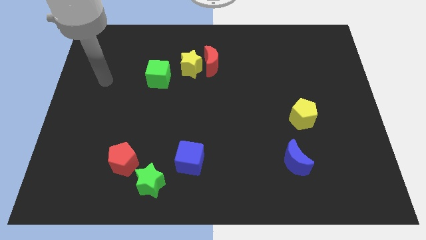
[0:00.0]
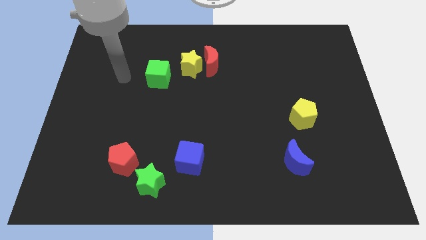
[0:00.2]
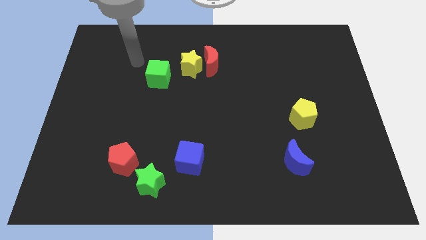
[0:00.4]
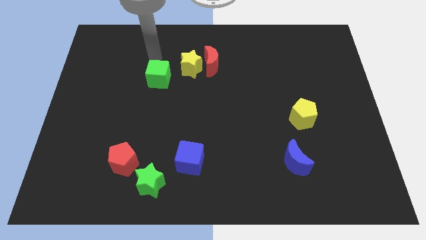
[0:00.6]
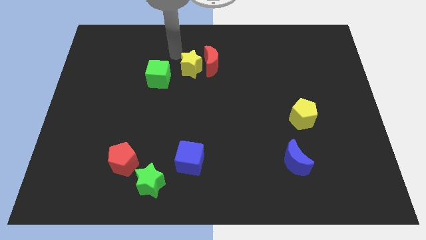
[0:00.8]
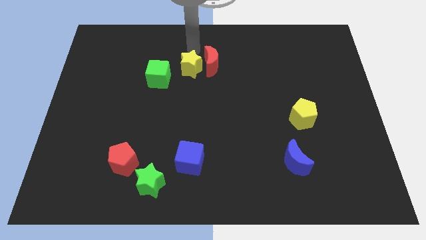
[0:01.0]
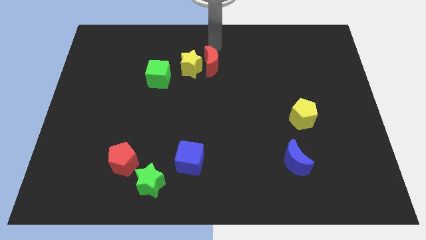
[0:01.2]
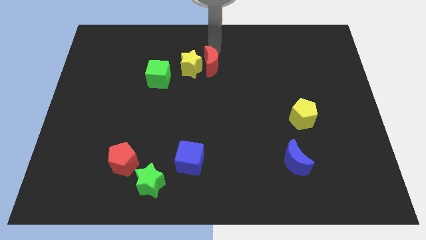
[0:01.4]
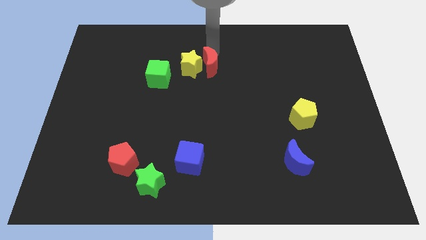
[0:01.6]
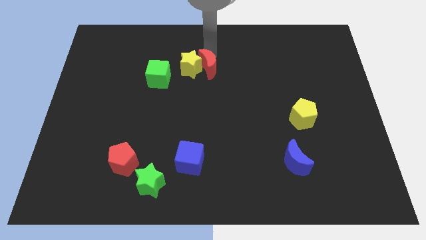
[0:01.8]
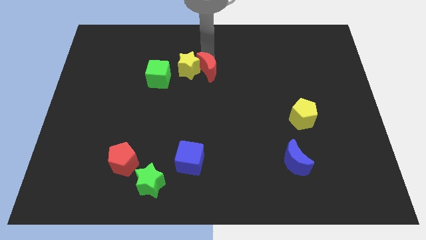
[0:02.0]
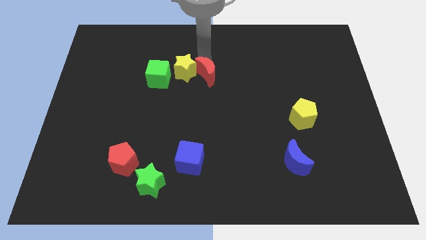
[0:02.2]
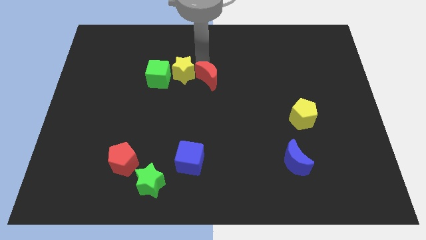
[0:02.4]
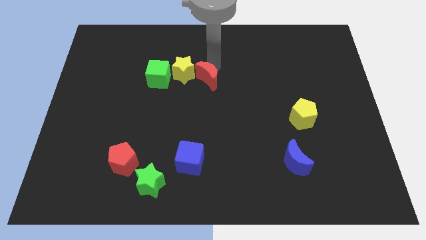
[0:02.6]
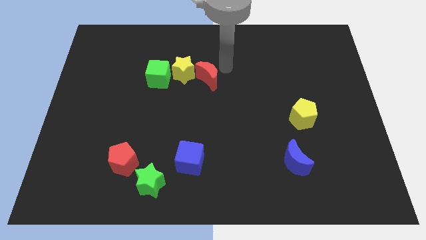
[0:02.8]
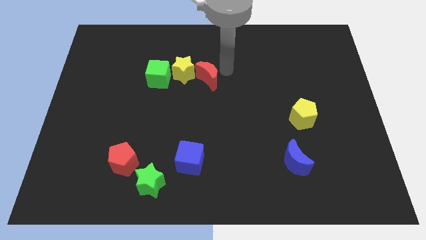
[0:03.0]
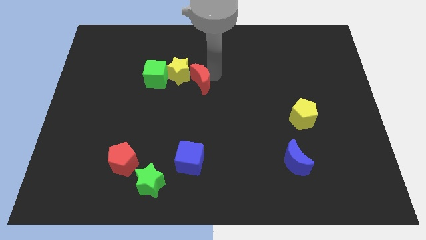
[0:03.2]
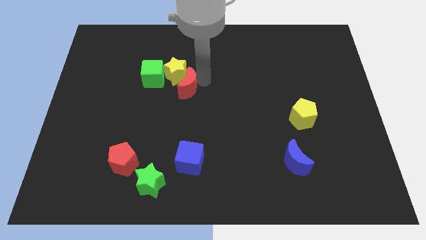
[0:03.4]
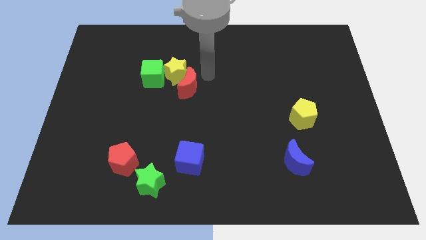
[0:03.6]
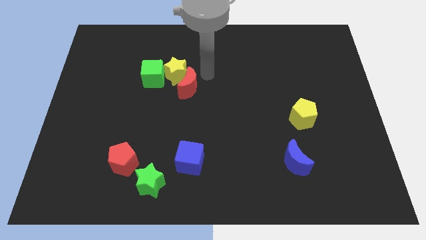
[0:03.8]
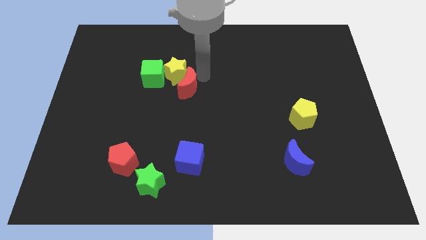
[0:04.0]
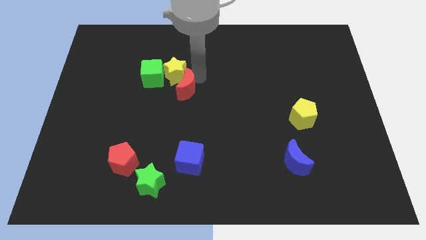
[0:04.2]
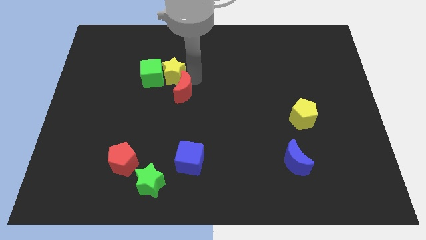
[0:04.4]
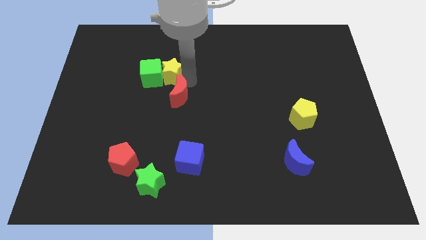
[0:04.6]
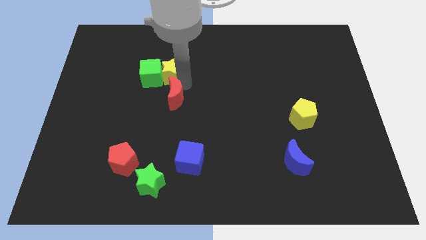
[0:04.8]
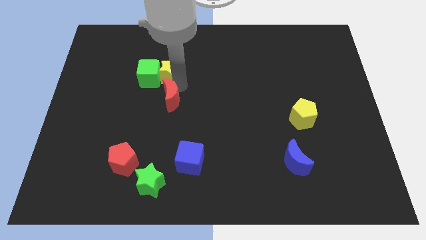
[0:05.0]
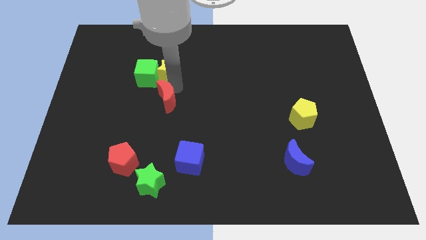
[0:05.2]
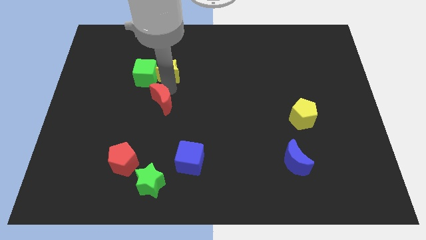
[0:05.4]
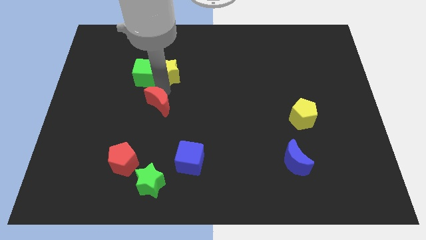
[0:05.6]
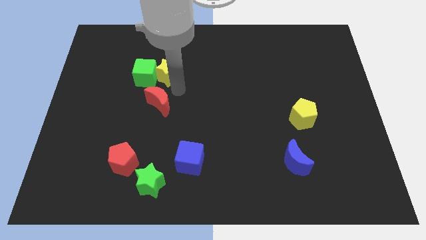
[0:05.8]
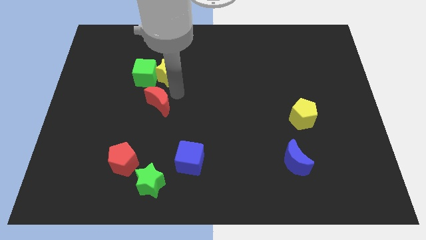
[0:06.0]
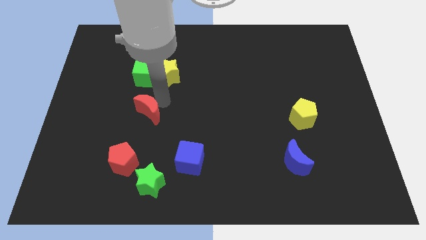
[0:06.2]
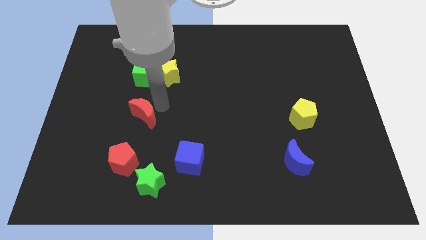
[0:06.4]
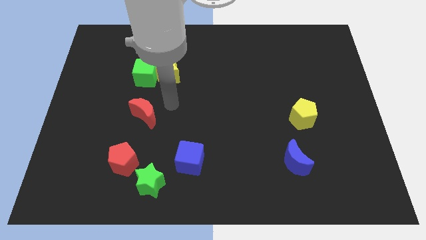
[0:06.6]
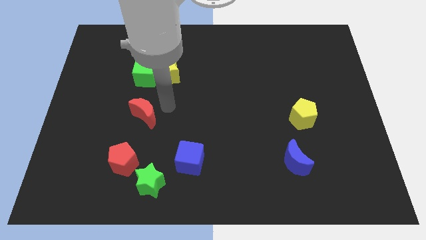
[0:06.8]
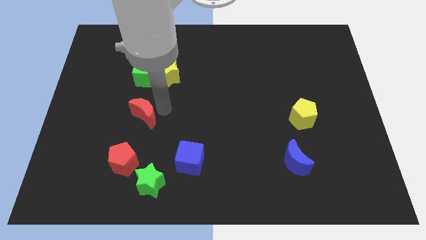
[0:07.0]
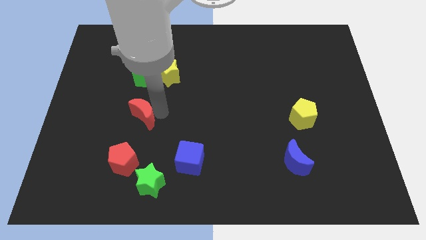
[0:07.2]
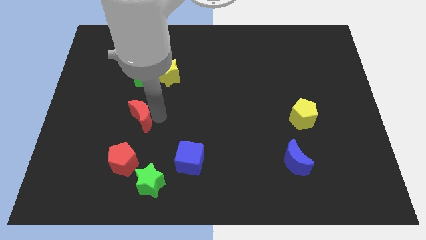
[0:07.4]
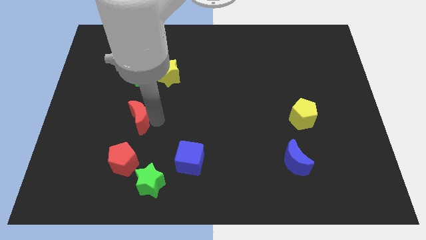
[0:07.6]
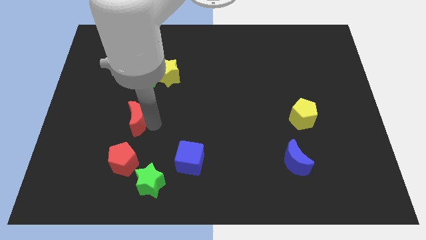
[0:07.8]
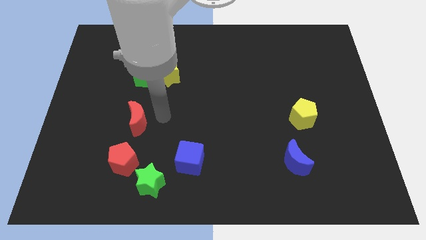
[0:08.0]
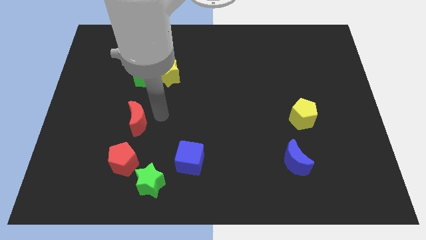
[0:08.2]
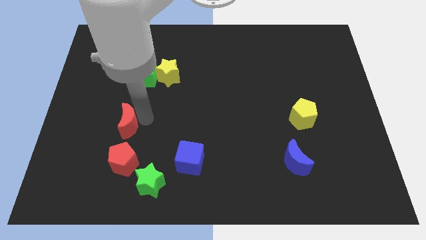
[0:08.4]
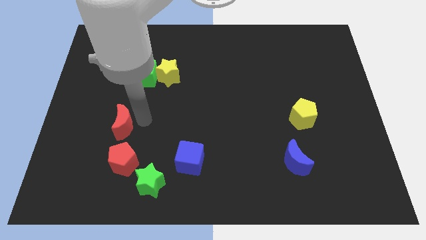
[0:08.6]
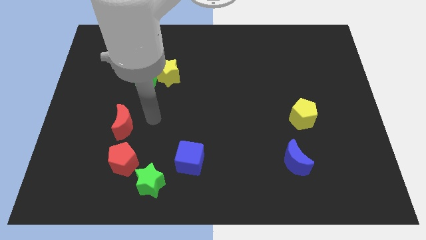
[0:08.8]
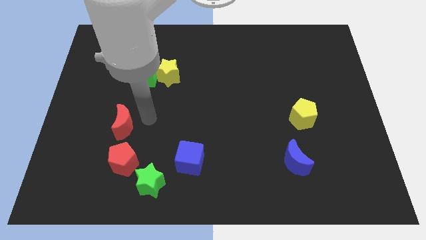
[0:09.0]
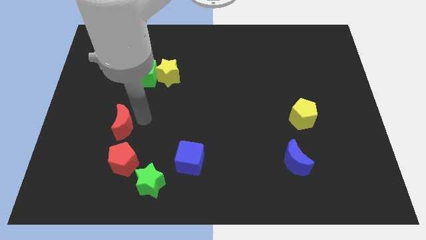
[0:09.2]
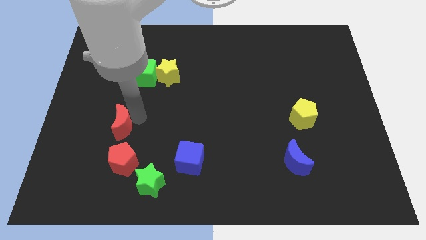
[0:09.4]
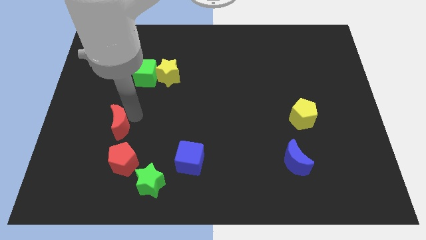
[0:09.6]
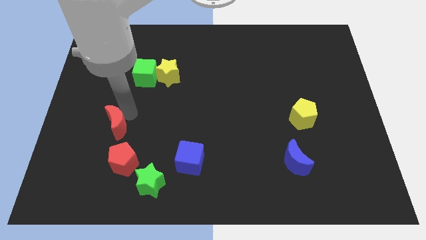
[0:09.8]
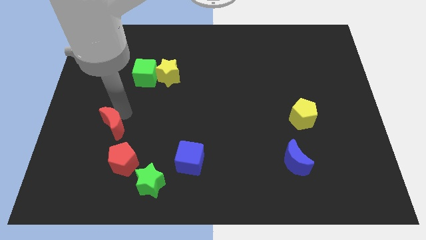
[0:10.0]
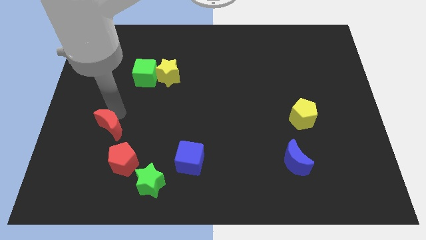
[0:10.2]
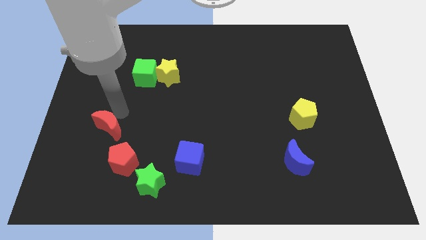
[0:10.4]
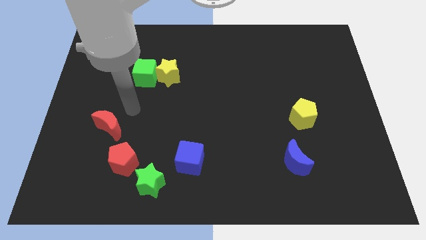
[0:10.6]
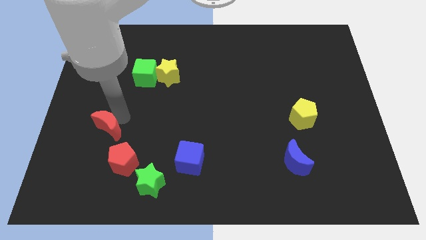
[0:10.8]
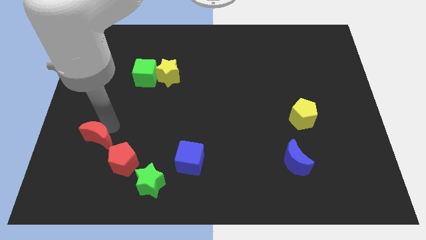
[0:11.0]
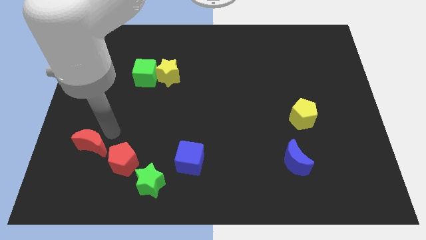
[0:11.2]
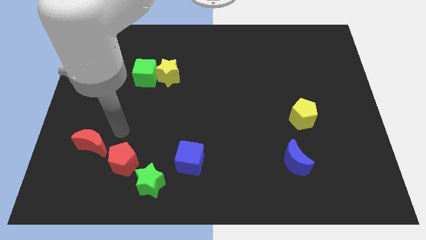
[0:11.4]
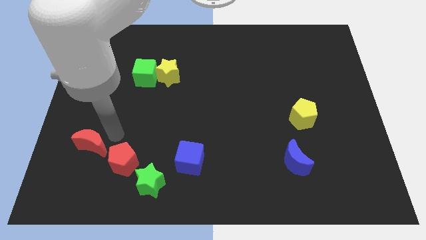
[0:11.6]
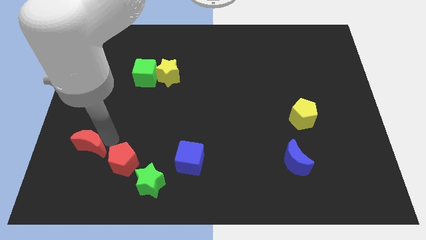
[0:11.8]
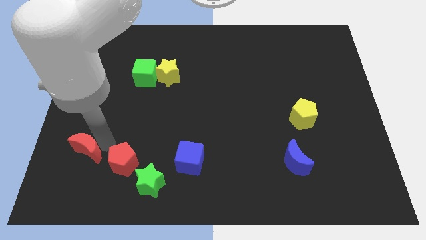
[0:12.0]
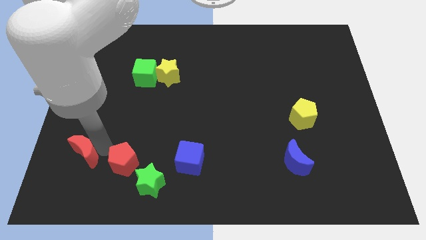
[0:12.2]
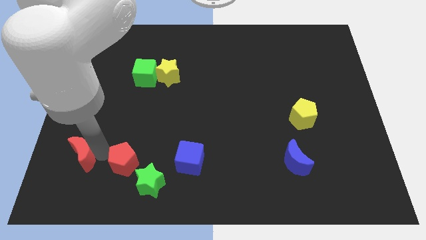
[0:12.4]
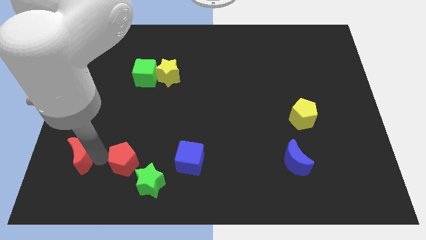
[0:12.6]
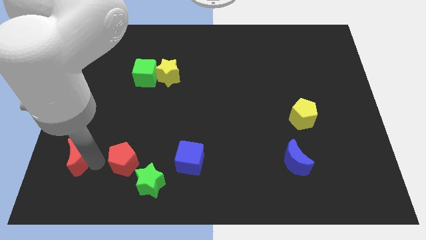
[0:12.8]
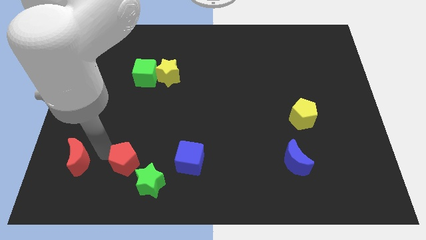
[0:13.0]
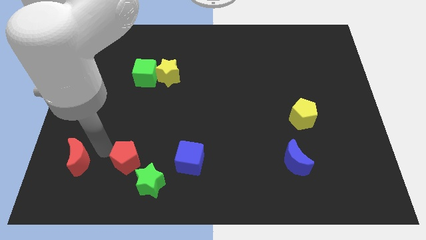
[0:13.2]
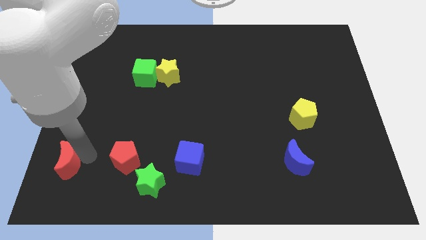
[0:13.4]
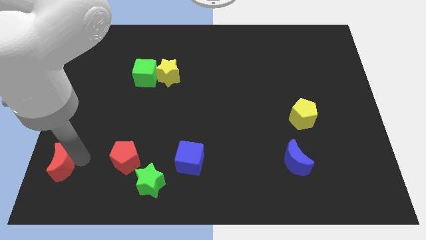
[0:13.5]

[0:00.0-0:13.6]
move the red moon to the bottom left of the board
